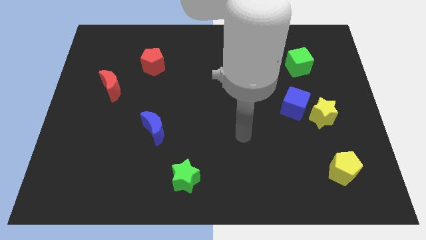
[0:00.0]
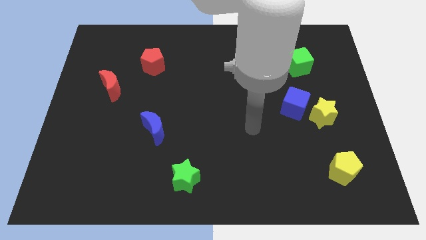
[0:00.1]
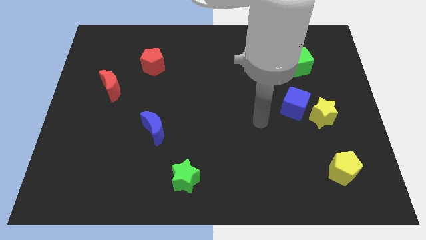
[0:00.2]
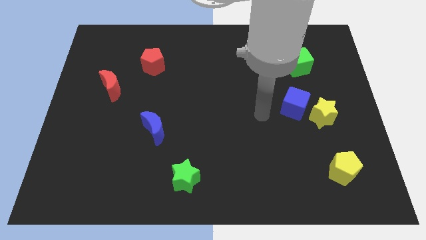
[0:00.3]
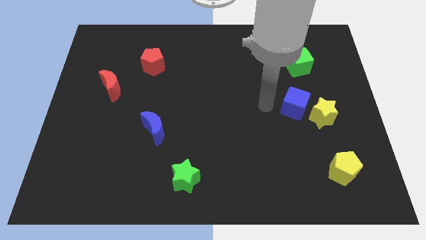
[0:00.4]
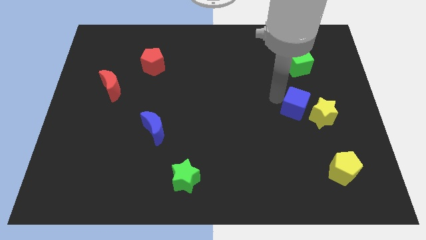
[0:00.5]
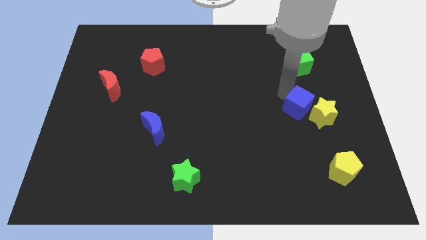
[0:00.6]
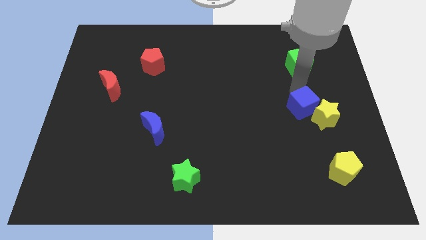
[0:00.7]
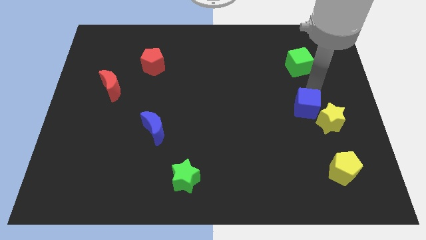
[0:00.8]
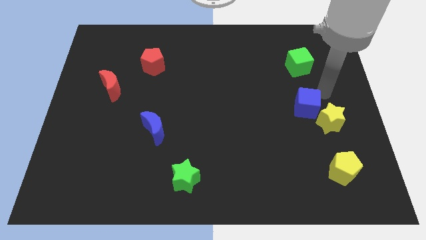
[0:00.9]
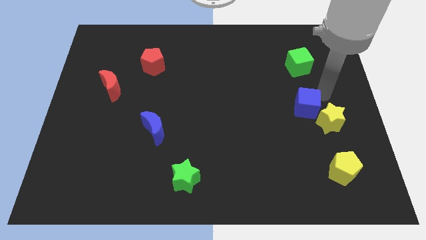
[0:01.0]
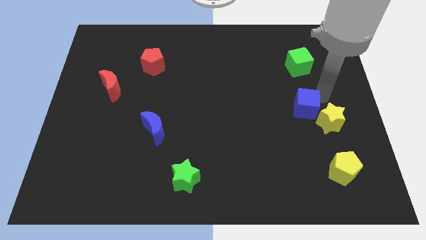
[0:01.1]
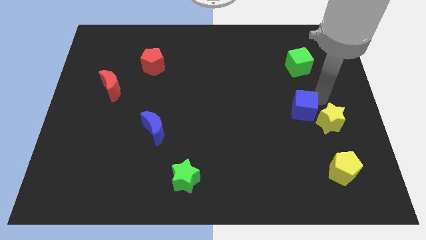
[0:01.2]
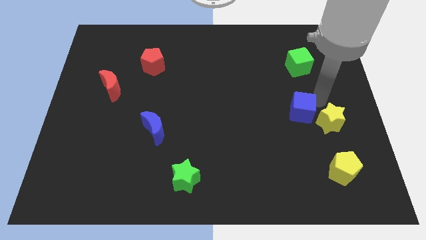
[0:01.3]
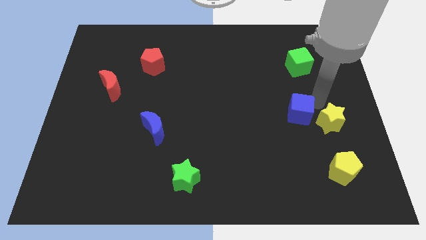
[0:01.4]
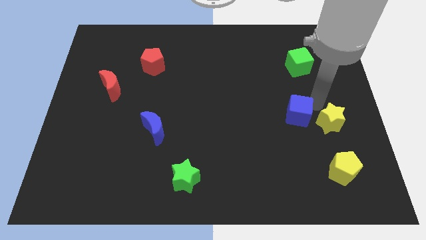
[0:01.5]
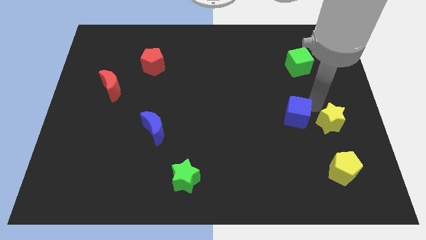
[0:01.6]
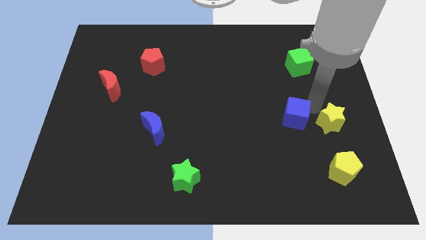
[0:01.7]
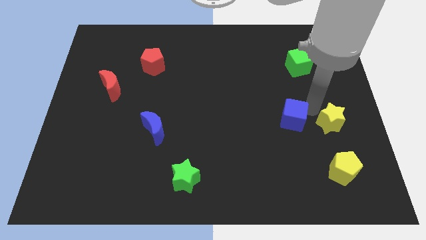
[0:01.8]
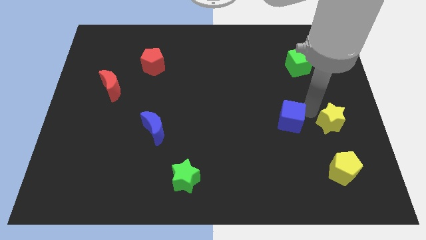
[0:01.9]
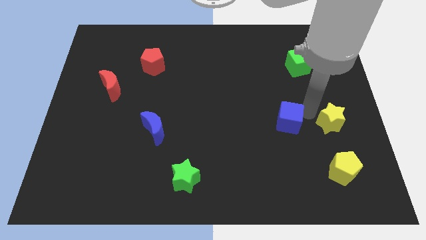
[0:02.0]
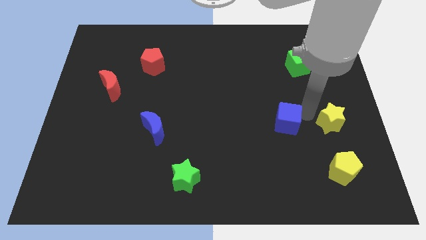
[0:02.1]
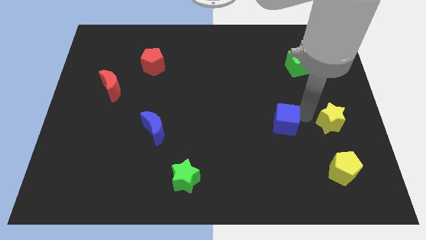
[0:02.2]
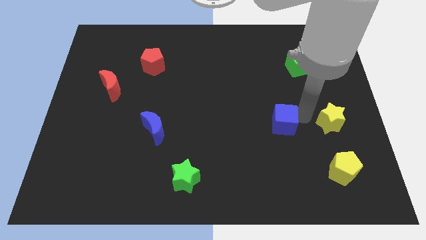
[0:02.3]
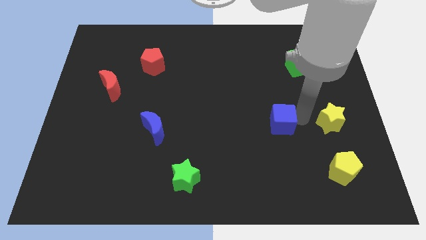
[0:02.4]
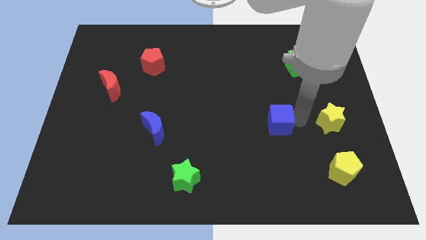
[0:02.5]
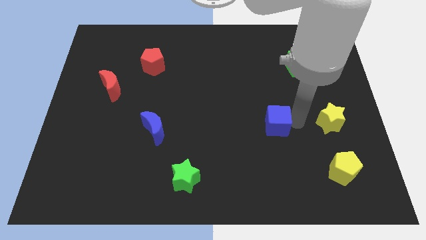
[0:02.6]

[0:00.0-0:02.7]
move the blue cube somewhat diagonally downwards and left

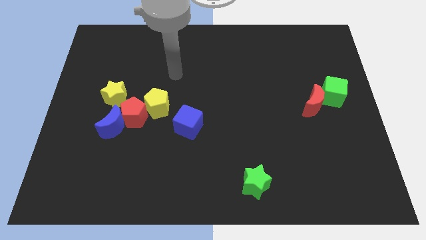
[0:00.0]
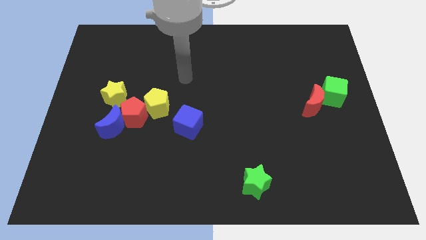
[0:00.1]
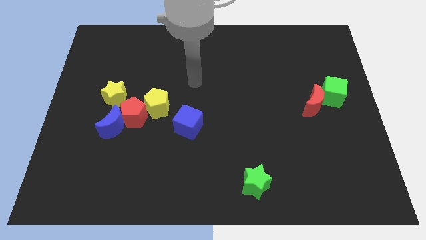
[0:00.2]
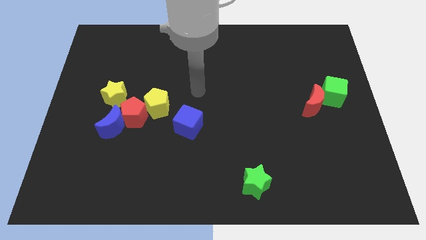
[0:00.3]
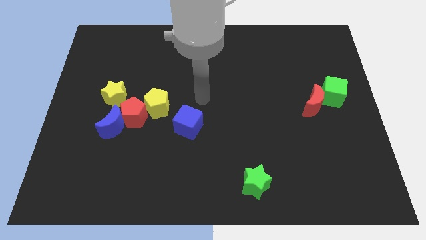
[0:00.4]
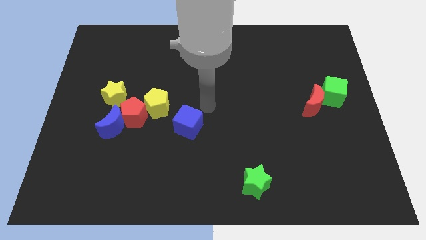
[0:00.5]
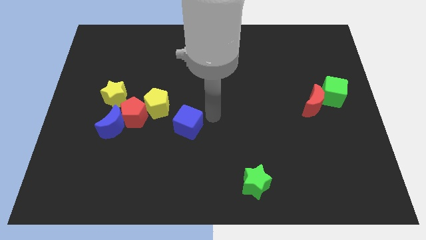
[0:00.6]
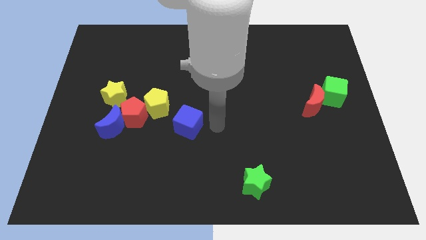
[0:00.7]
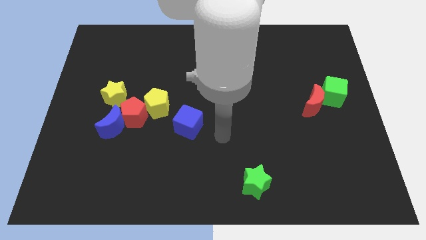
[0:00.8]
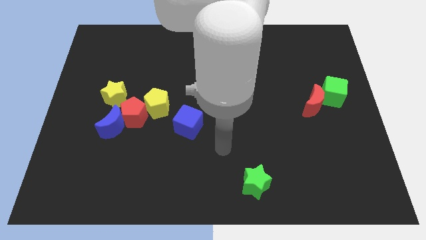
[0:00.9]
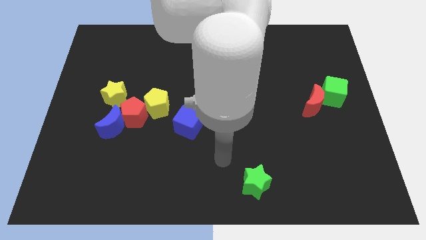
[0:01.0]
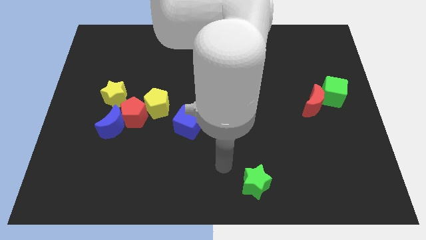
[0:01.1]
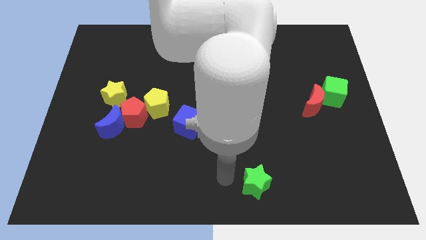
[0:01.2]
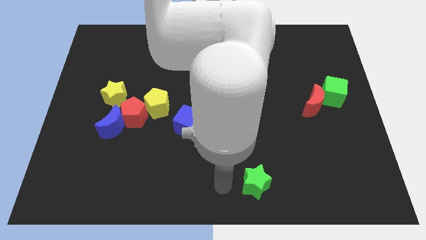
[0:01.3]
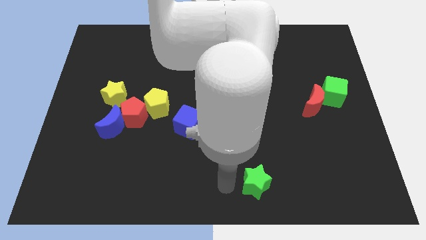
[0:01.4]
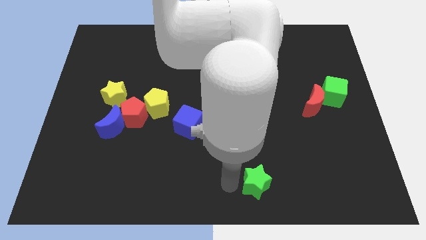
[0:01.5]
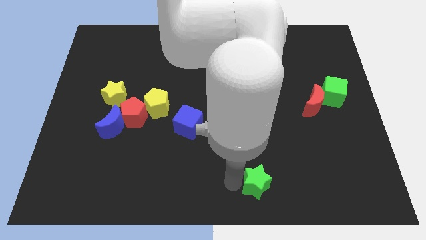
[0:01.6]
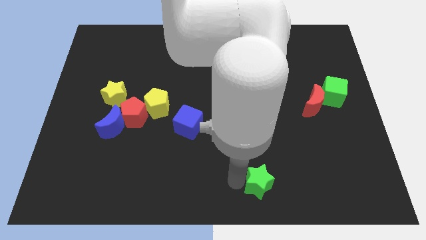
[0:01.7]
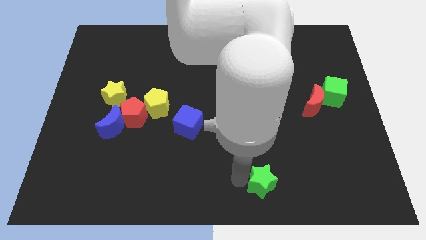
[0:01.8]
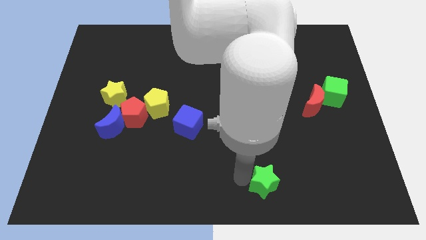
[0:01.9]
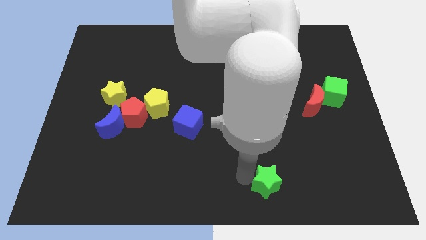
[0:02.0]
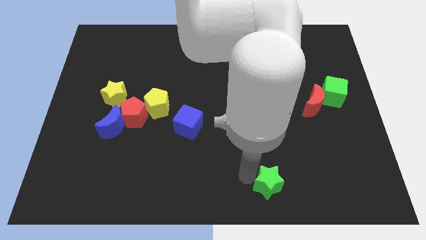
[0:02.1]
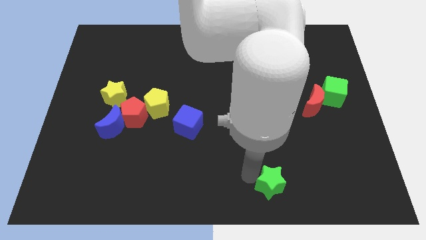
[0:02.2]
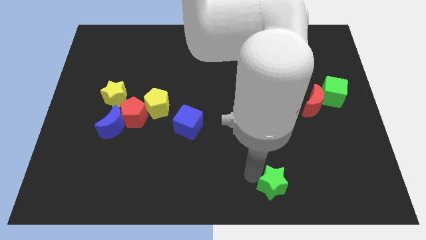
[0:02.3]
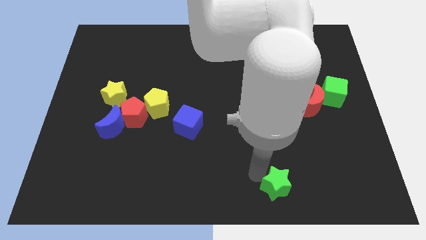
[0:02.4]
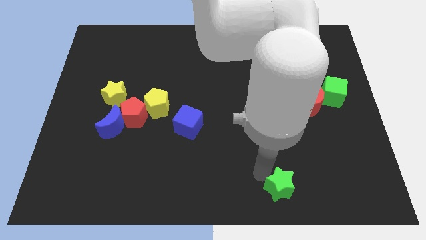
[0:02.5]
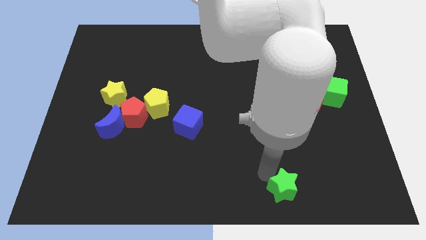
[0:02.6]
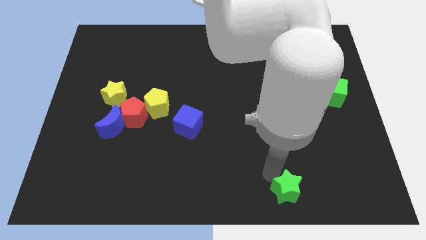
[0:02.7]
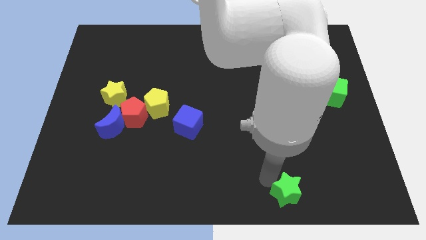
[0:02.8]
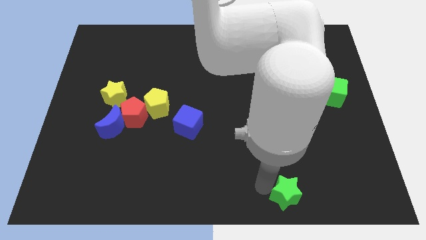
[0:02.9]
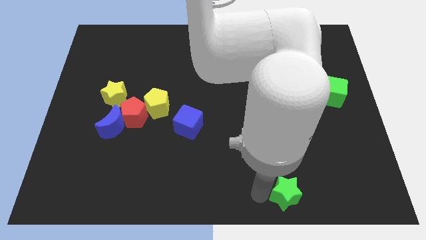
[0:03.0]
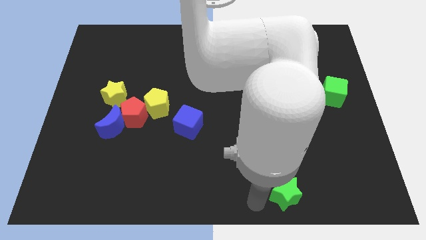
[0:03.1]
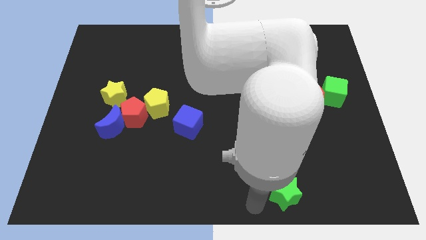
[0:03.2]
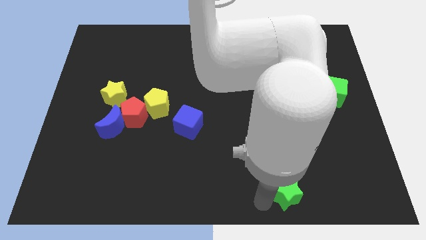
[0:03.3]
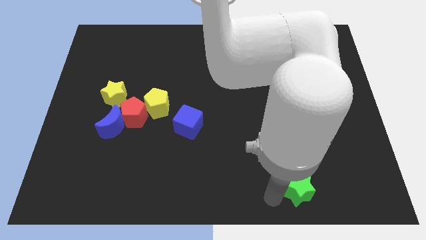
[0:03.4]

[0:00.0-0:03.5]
slide the green star to the right a little

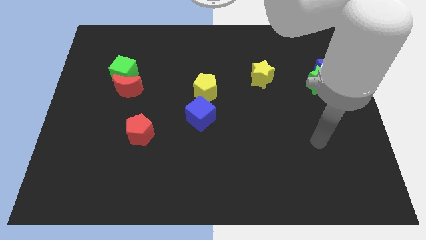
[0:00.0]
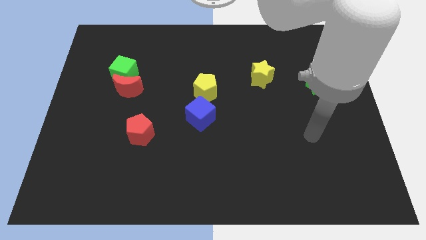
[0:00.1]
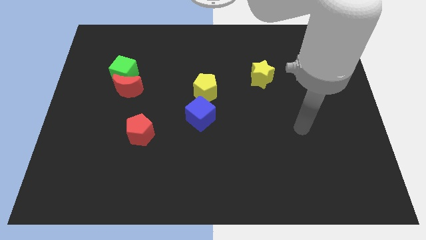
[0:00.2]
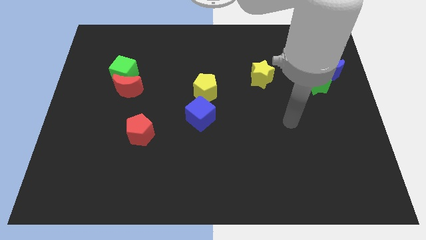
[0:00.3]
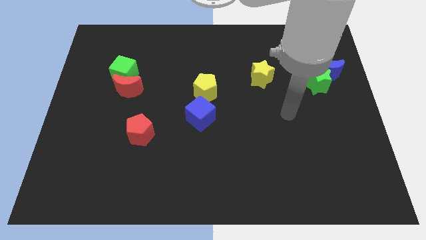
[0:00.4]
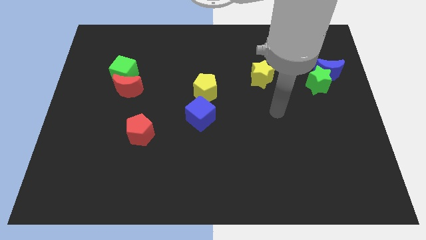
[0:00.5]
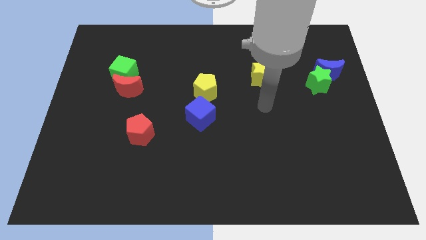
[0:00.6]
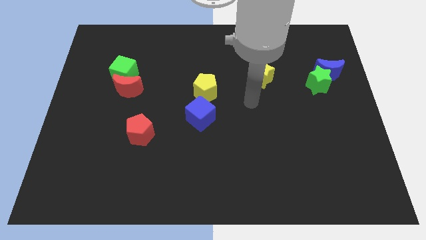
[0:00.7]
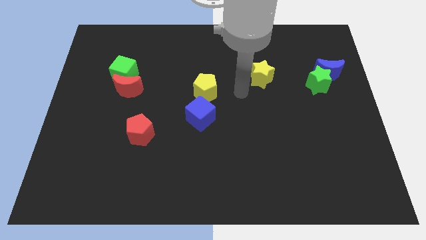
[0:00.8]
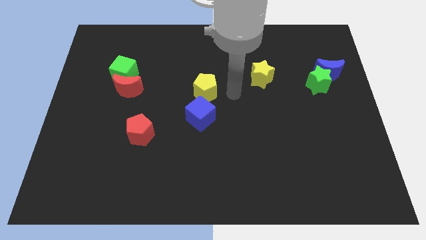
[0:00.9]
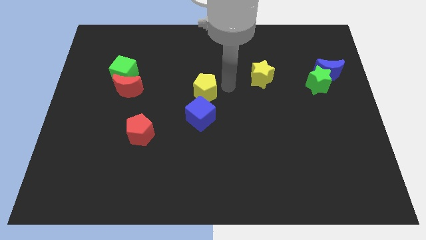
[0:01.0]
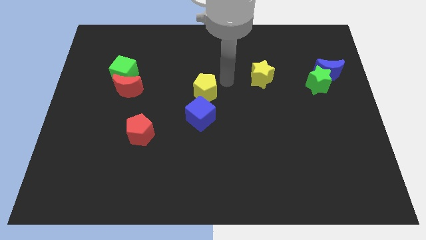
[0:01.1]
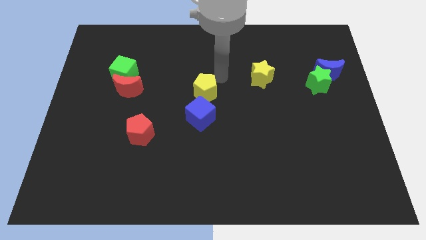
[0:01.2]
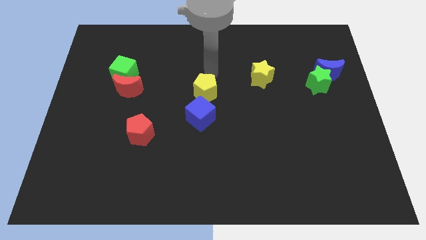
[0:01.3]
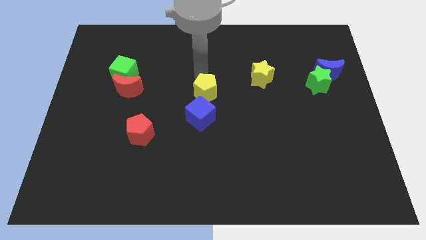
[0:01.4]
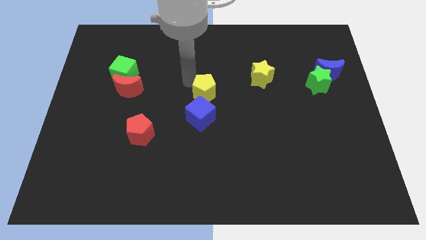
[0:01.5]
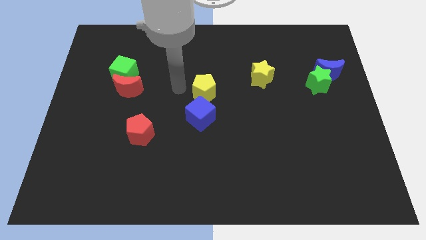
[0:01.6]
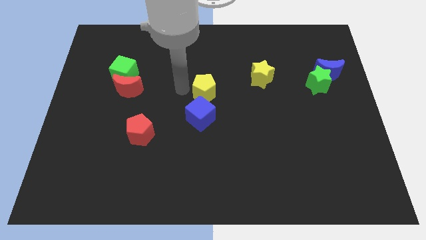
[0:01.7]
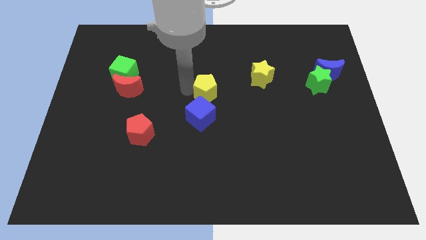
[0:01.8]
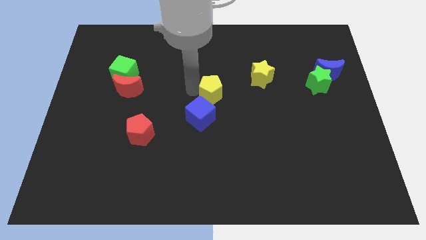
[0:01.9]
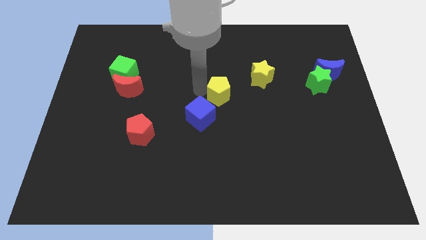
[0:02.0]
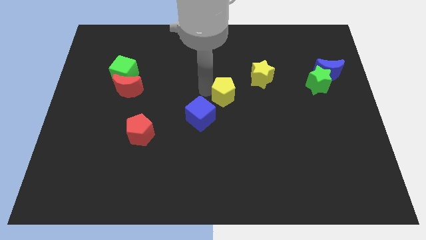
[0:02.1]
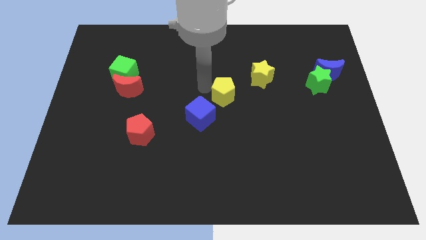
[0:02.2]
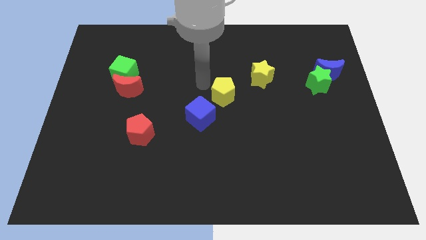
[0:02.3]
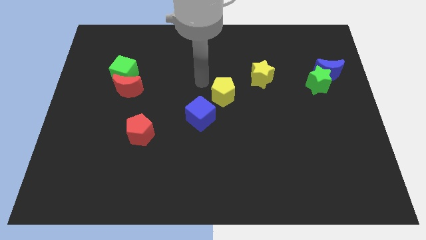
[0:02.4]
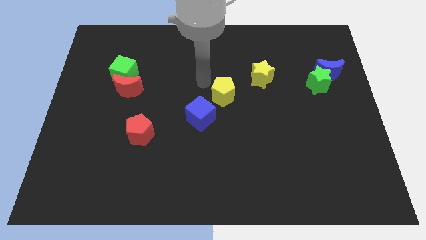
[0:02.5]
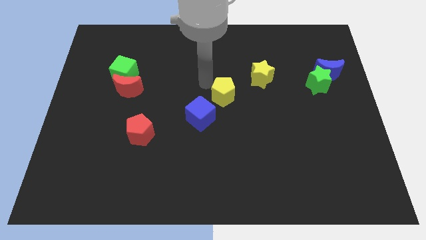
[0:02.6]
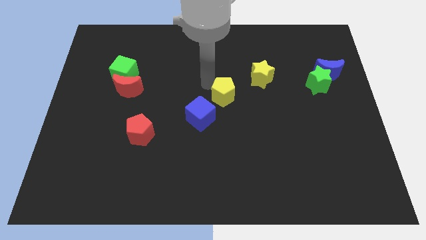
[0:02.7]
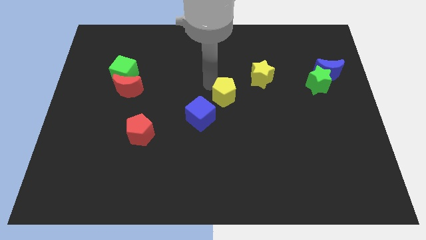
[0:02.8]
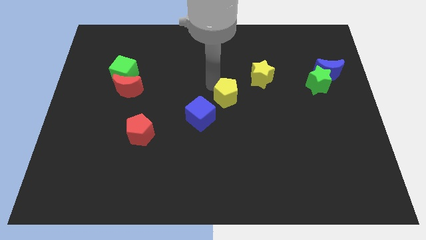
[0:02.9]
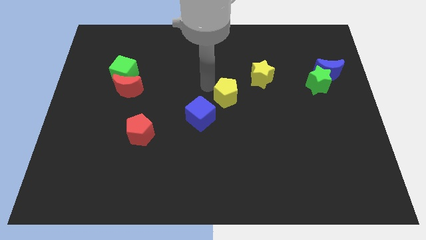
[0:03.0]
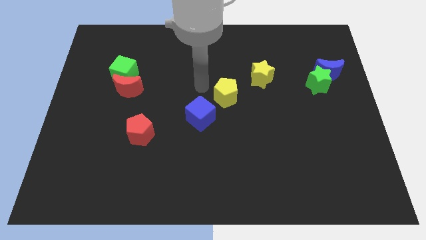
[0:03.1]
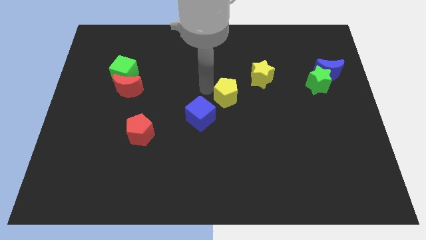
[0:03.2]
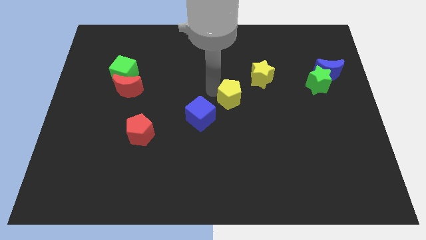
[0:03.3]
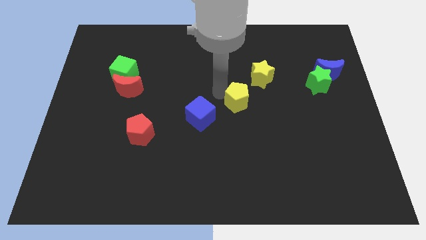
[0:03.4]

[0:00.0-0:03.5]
push the yellow pentagon right a bit
